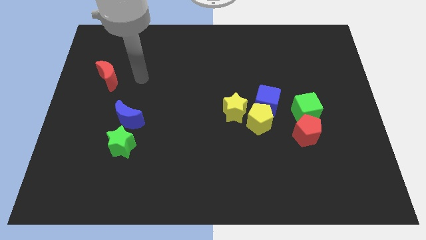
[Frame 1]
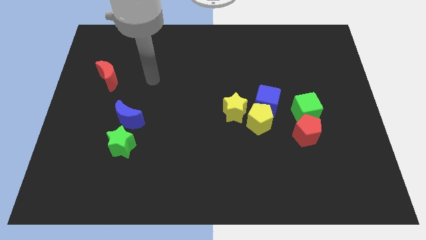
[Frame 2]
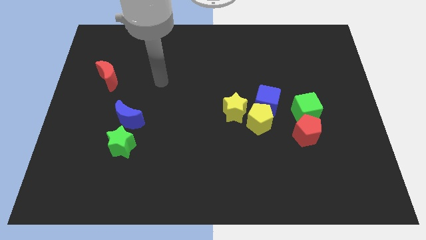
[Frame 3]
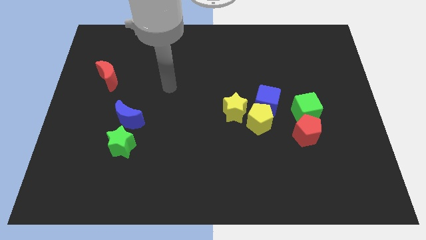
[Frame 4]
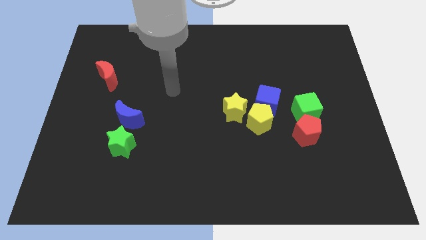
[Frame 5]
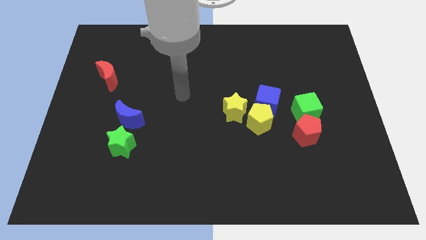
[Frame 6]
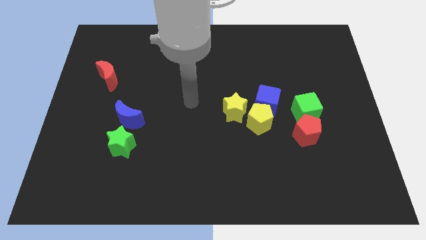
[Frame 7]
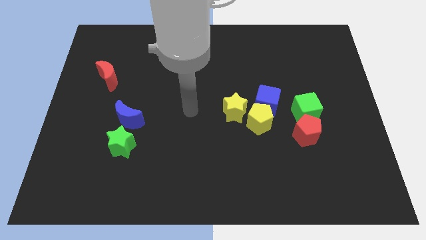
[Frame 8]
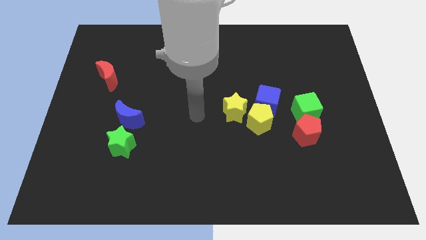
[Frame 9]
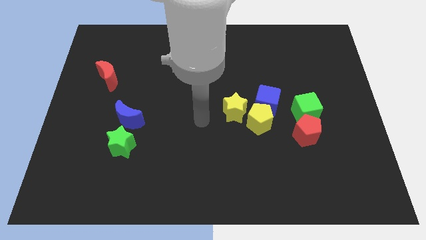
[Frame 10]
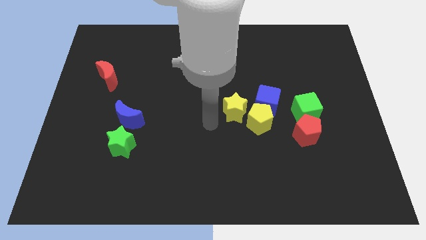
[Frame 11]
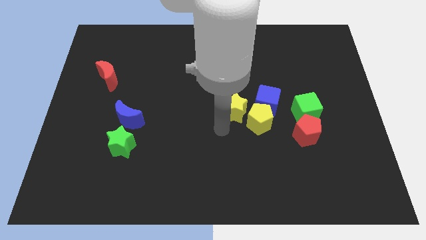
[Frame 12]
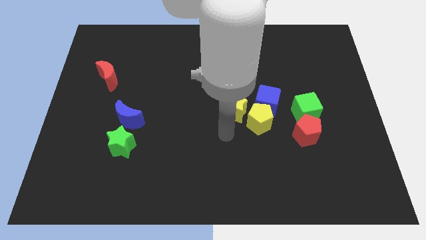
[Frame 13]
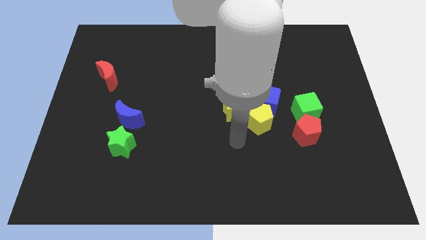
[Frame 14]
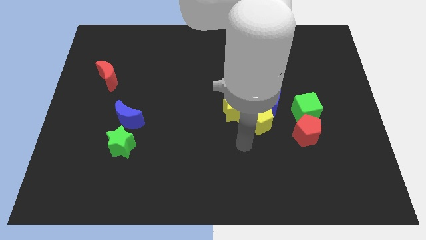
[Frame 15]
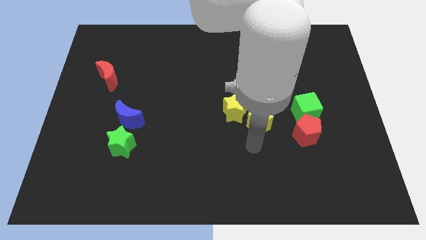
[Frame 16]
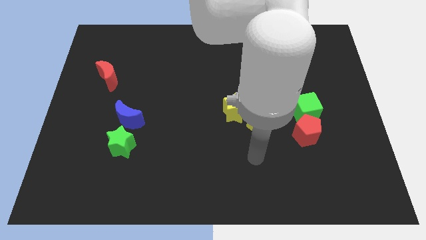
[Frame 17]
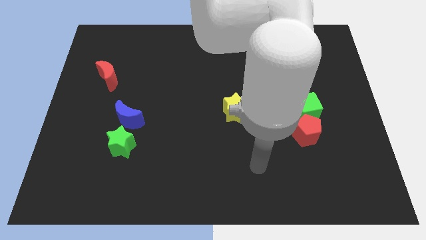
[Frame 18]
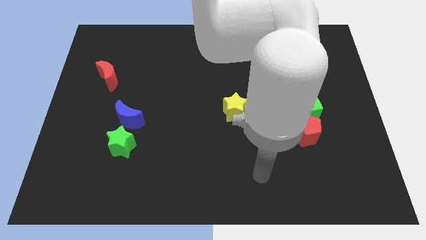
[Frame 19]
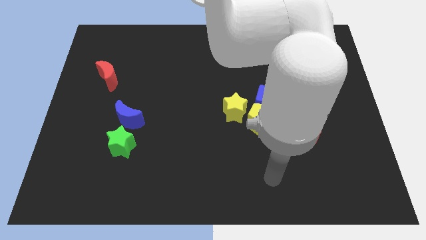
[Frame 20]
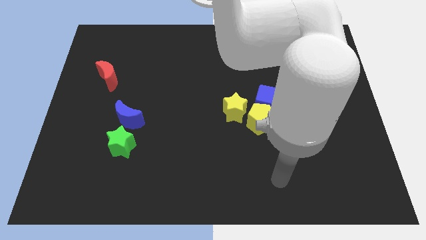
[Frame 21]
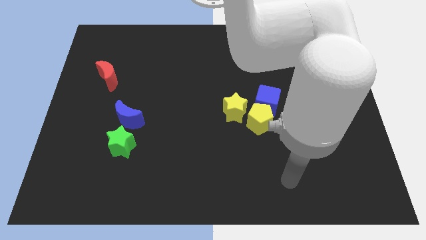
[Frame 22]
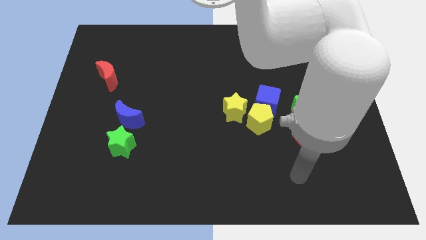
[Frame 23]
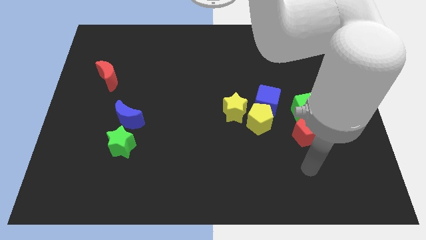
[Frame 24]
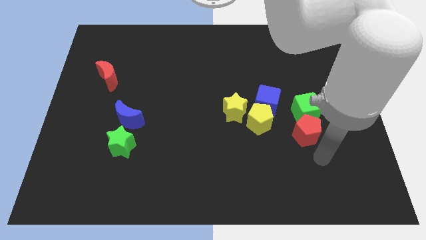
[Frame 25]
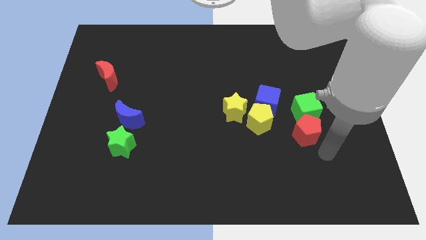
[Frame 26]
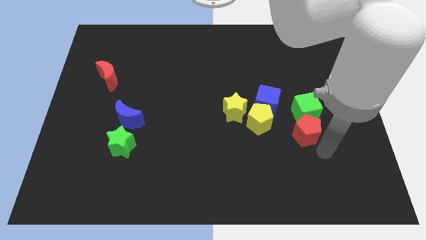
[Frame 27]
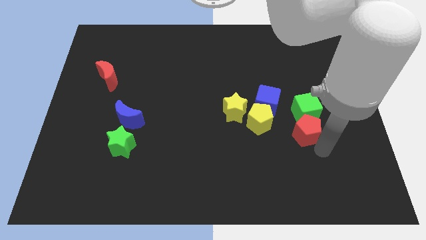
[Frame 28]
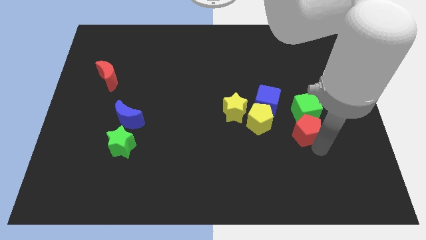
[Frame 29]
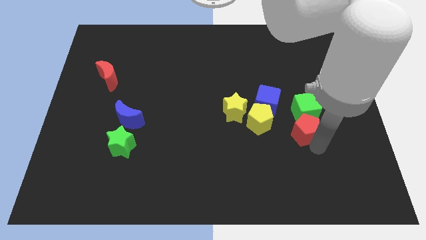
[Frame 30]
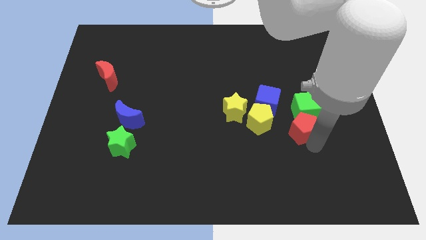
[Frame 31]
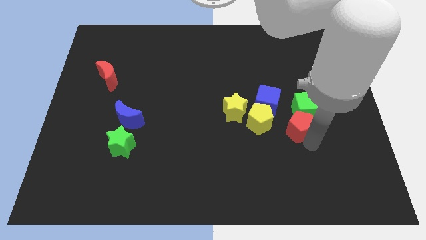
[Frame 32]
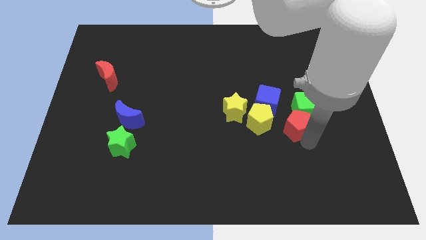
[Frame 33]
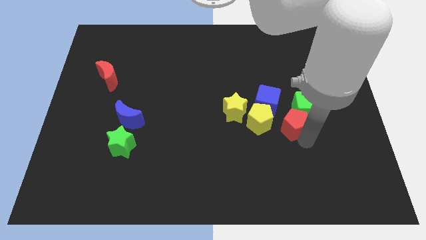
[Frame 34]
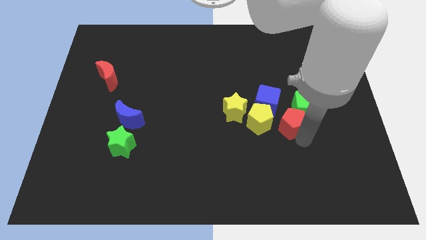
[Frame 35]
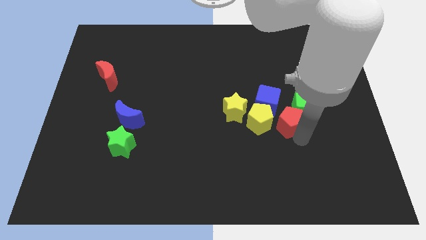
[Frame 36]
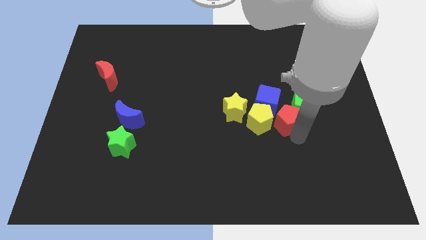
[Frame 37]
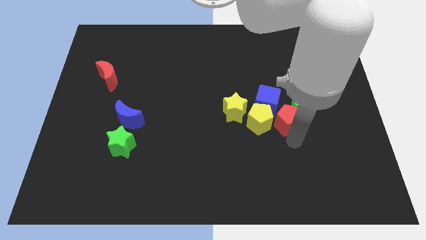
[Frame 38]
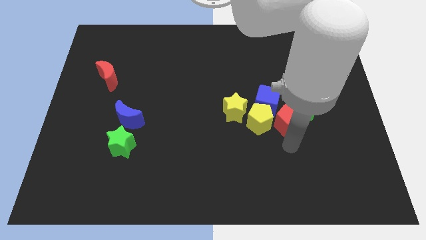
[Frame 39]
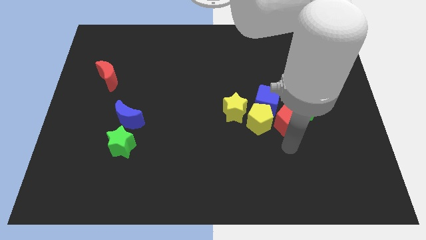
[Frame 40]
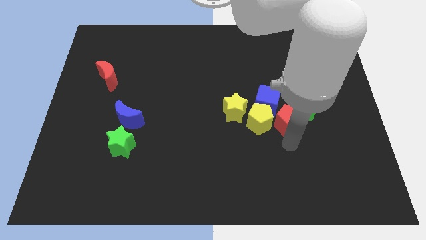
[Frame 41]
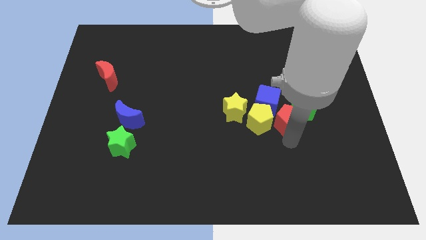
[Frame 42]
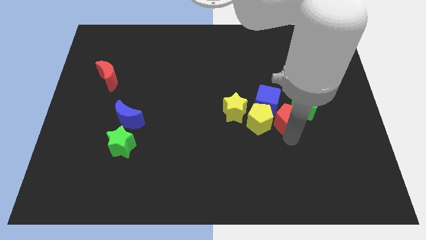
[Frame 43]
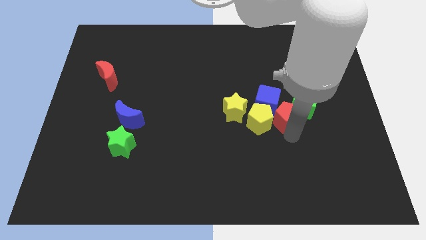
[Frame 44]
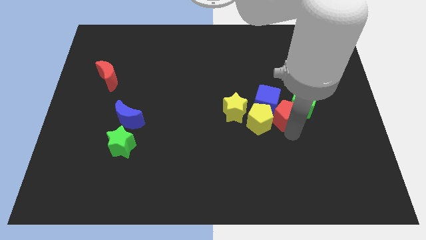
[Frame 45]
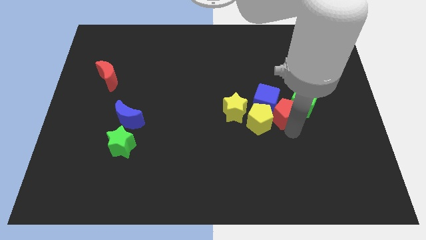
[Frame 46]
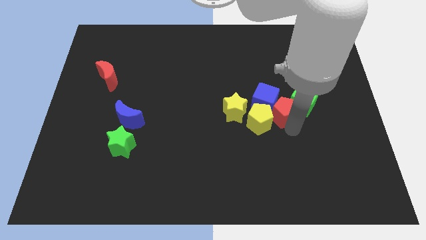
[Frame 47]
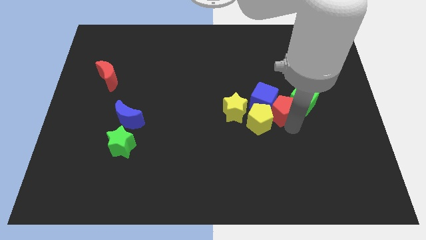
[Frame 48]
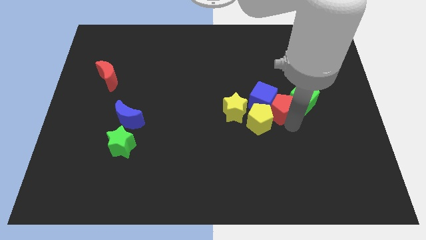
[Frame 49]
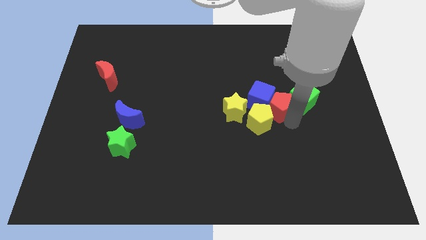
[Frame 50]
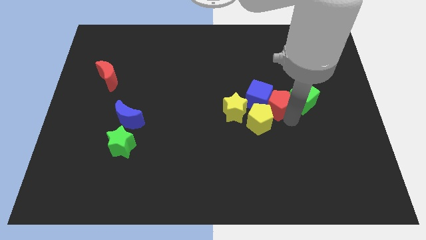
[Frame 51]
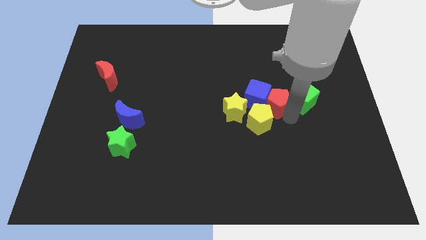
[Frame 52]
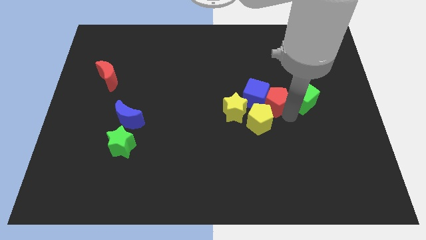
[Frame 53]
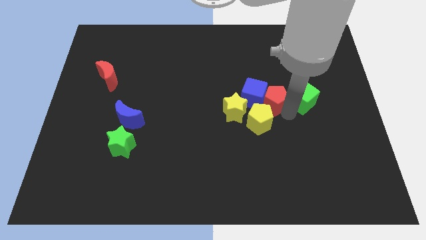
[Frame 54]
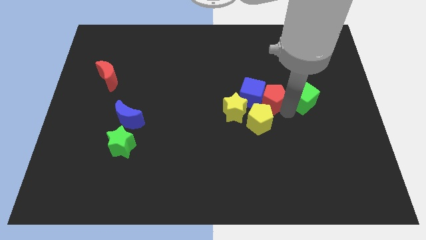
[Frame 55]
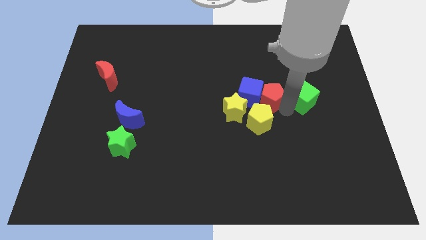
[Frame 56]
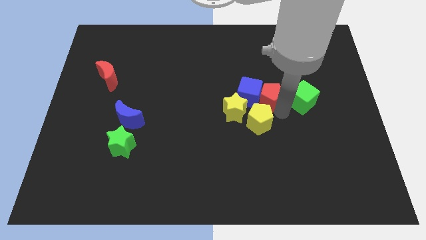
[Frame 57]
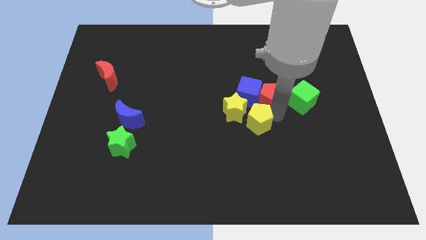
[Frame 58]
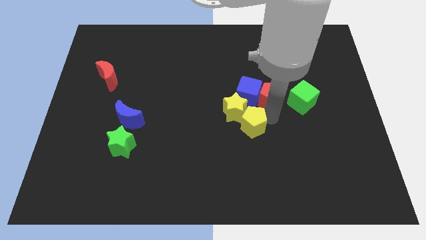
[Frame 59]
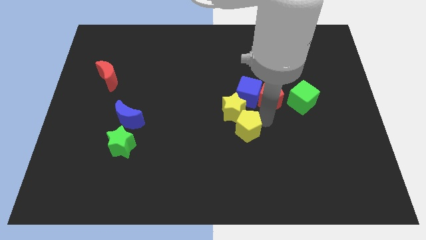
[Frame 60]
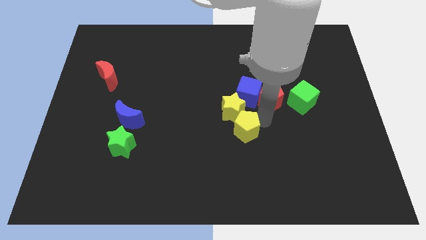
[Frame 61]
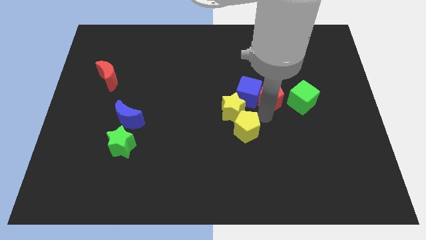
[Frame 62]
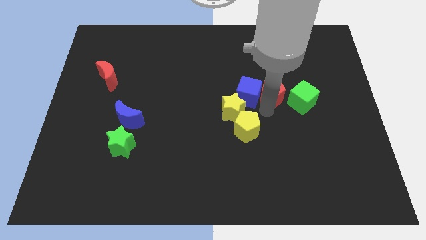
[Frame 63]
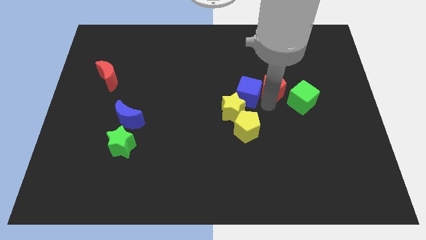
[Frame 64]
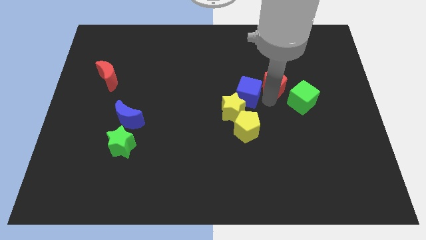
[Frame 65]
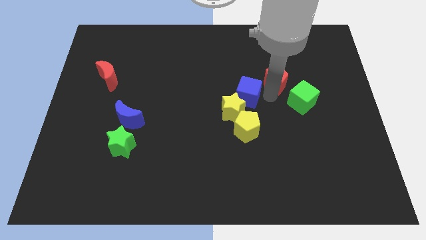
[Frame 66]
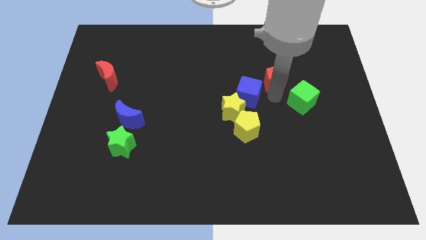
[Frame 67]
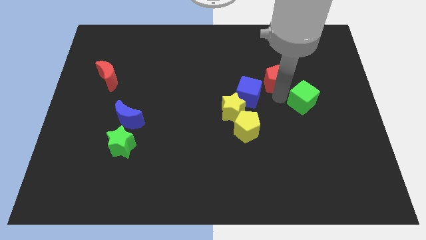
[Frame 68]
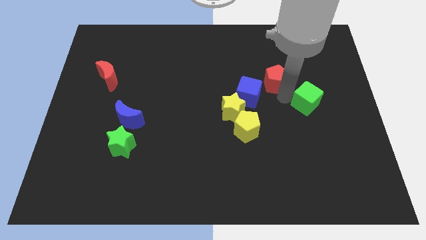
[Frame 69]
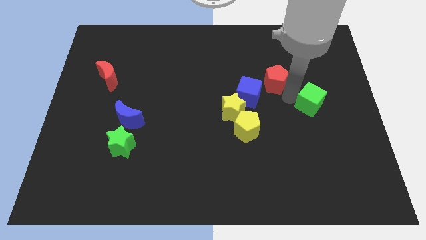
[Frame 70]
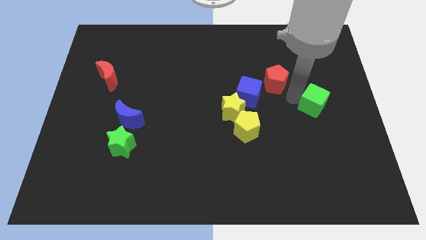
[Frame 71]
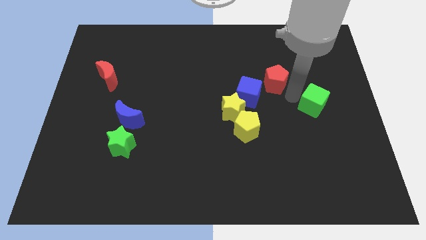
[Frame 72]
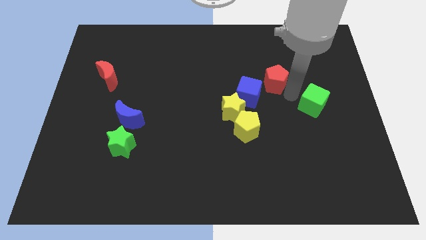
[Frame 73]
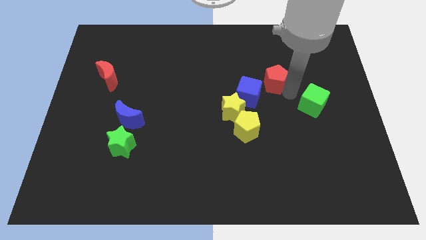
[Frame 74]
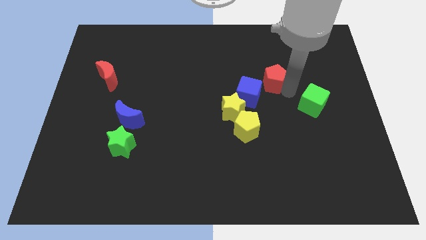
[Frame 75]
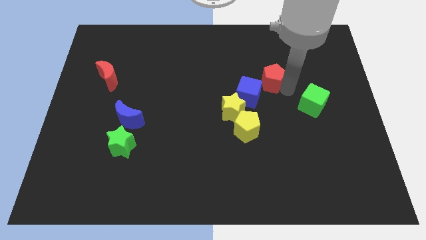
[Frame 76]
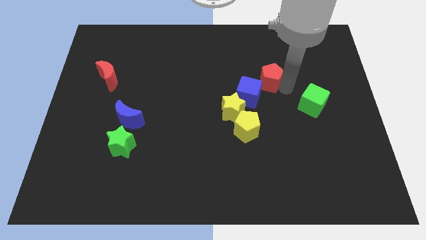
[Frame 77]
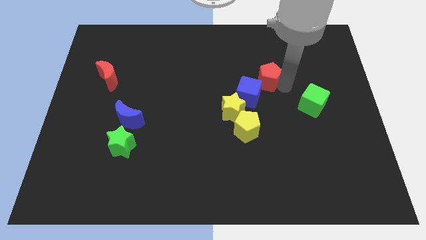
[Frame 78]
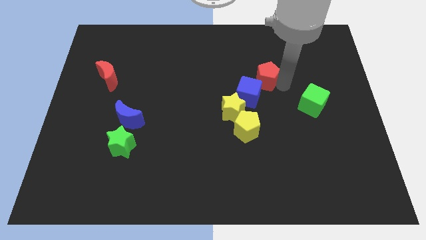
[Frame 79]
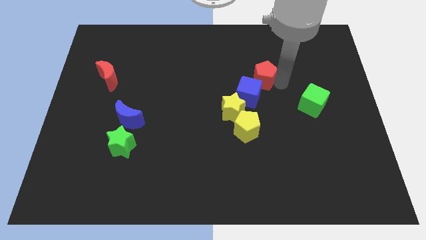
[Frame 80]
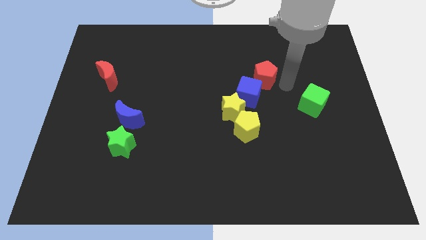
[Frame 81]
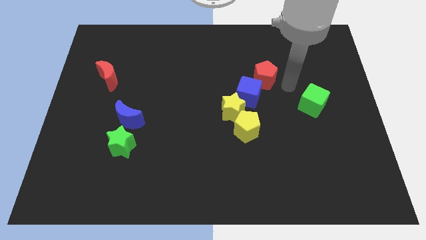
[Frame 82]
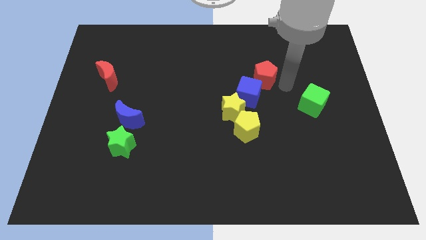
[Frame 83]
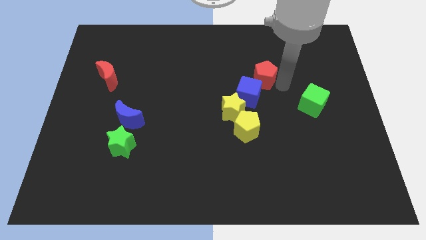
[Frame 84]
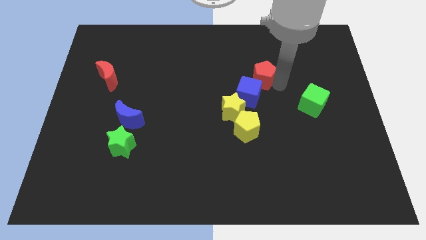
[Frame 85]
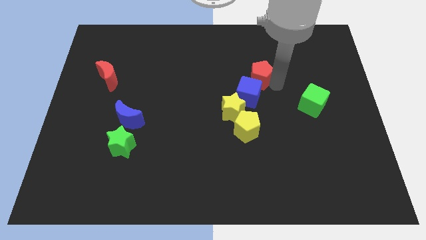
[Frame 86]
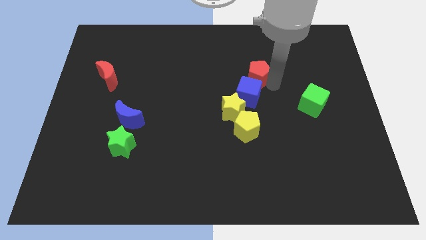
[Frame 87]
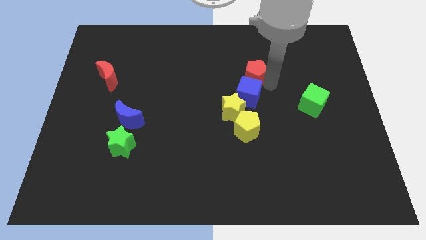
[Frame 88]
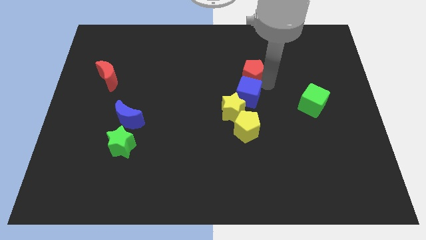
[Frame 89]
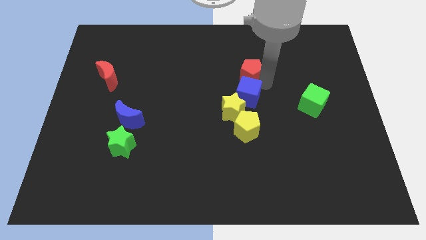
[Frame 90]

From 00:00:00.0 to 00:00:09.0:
slide the red pentagon up and then to the left
